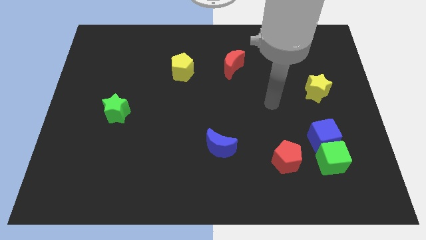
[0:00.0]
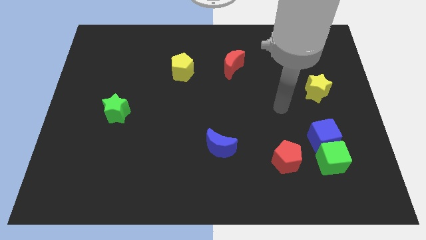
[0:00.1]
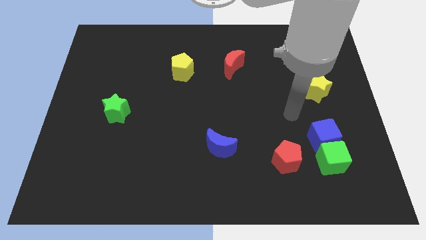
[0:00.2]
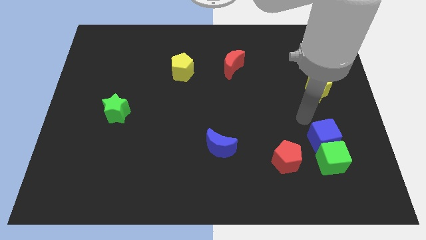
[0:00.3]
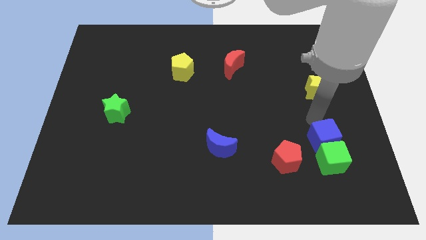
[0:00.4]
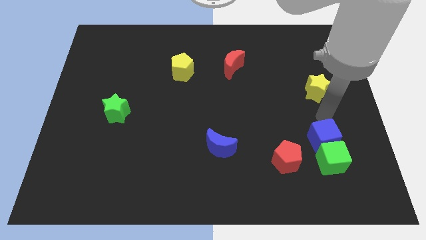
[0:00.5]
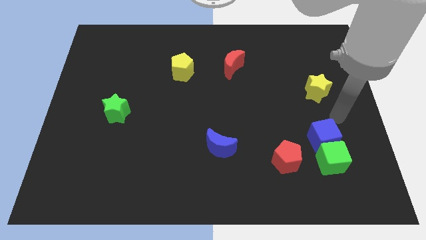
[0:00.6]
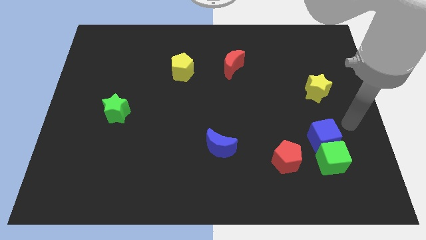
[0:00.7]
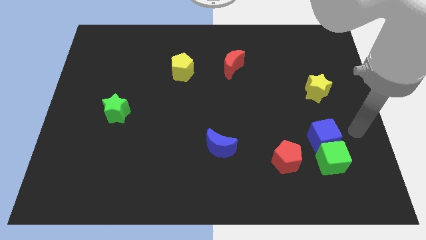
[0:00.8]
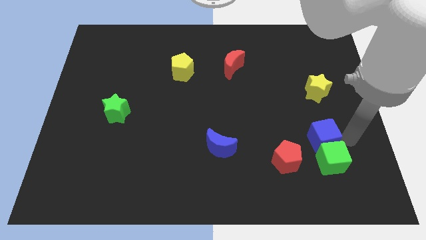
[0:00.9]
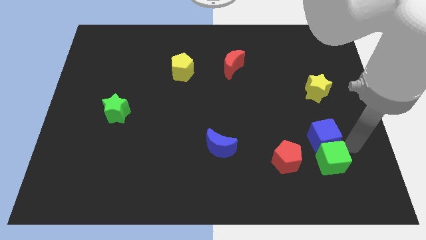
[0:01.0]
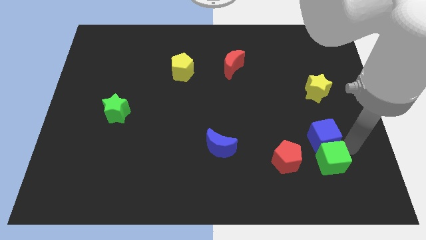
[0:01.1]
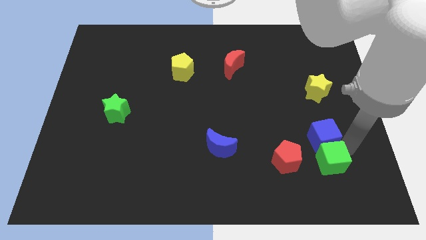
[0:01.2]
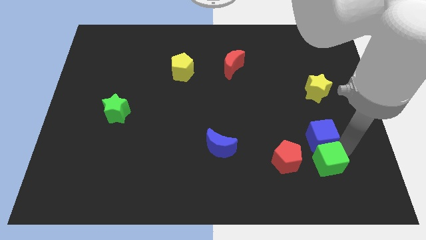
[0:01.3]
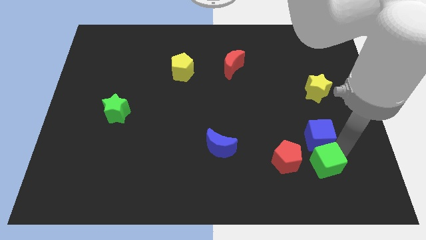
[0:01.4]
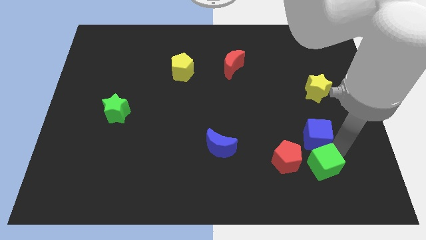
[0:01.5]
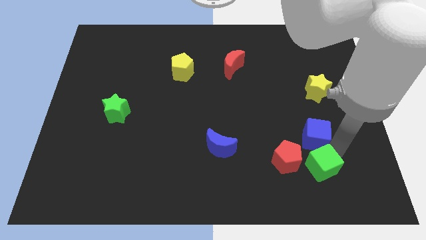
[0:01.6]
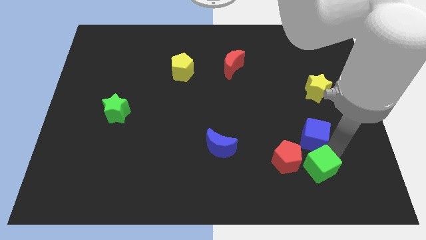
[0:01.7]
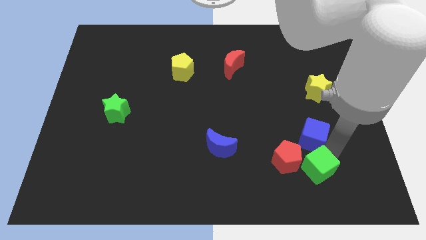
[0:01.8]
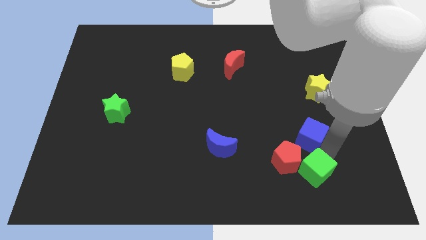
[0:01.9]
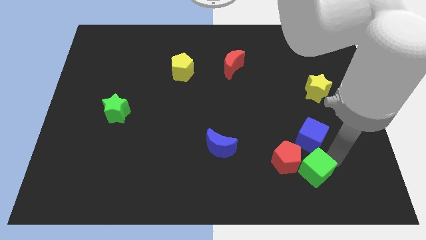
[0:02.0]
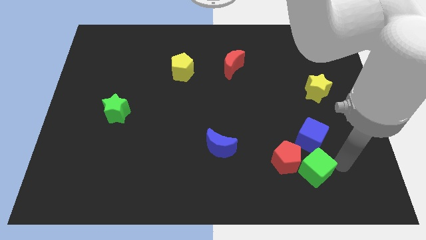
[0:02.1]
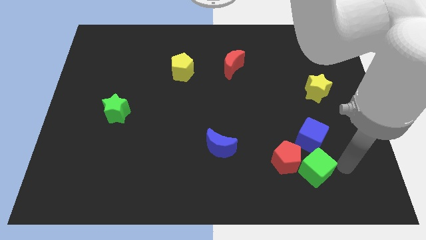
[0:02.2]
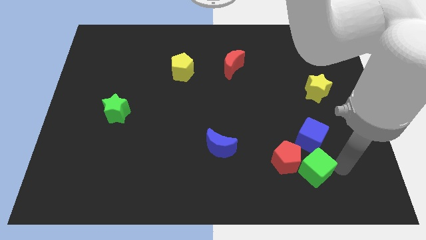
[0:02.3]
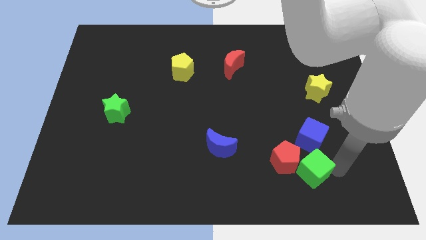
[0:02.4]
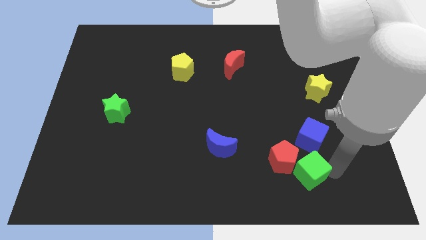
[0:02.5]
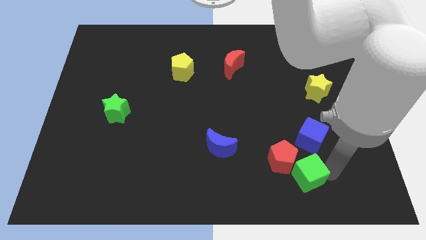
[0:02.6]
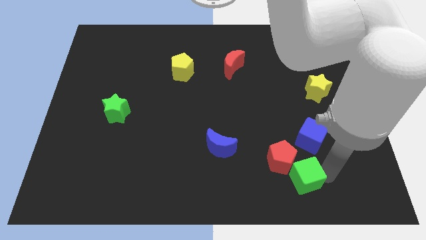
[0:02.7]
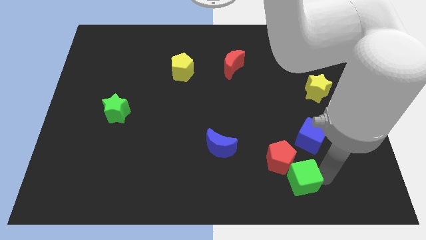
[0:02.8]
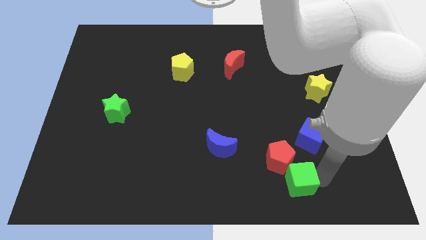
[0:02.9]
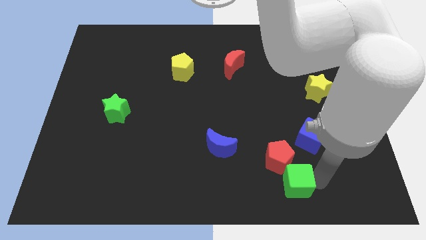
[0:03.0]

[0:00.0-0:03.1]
slightly push the green cube to the left

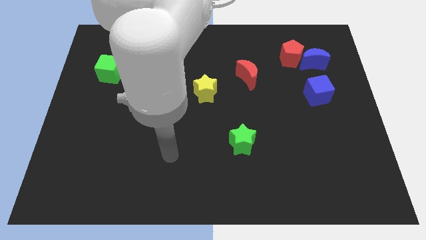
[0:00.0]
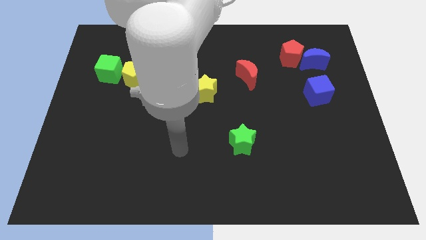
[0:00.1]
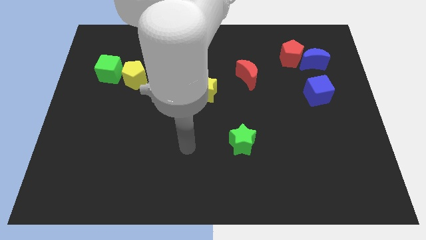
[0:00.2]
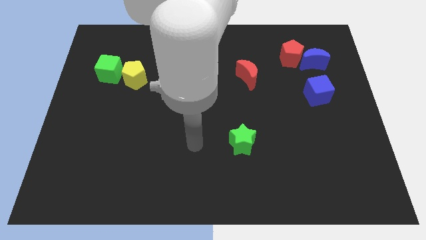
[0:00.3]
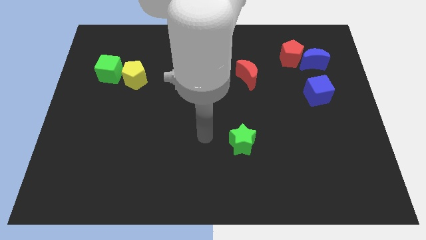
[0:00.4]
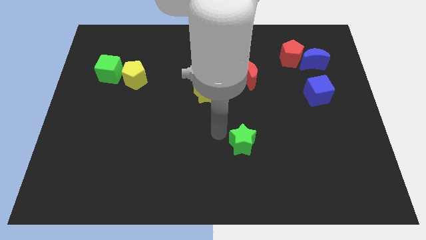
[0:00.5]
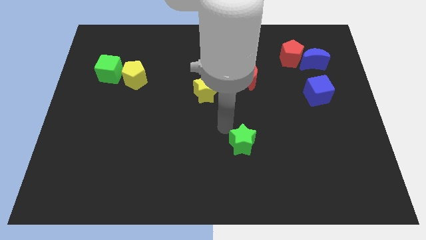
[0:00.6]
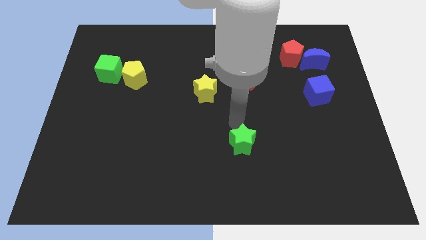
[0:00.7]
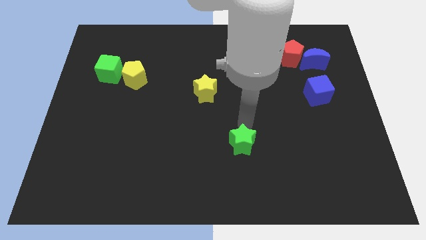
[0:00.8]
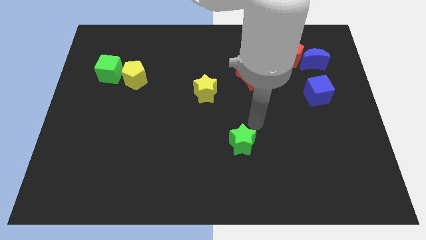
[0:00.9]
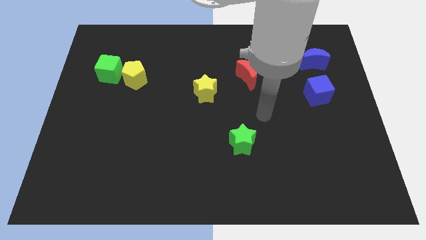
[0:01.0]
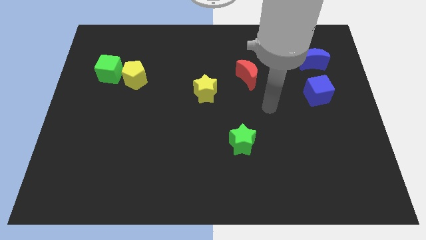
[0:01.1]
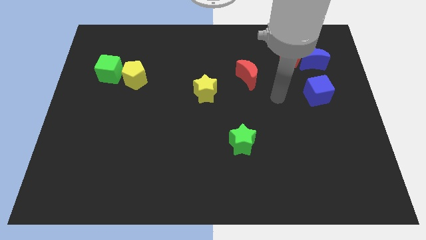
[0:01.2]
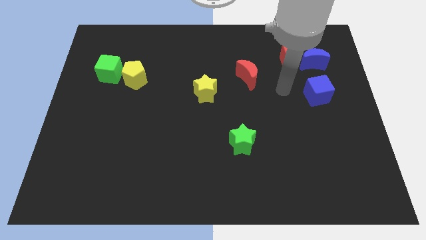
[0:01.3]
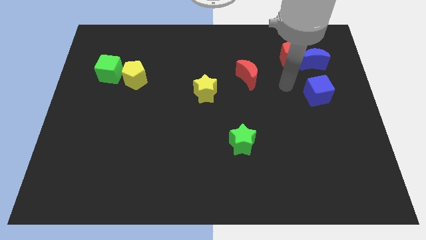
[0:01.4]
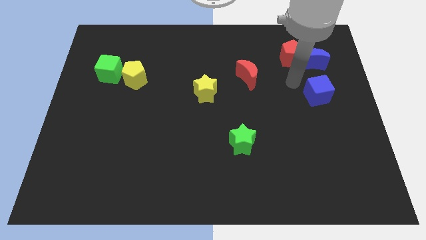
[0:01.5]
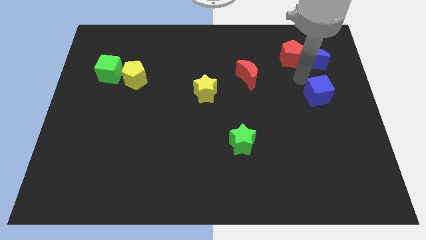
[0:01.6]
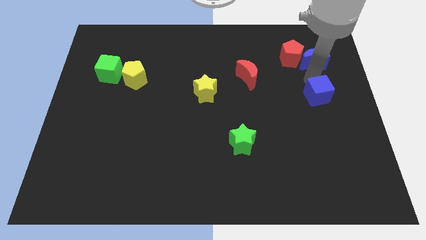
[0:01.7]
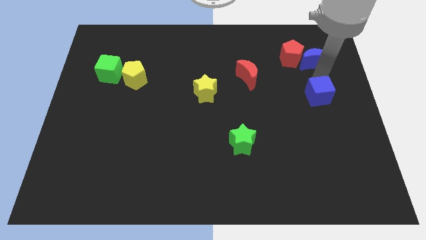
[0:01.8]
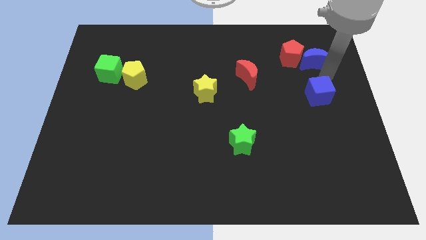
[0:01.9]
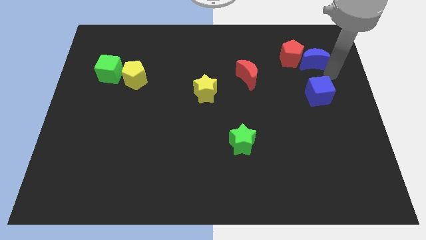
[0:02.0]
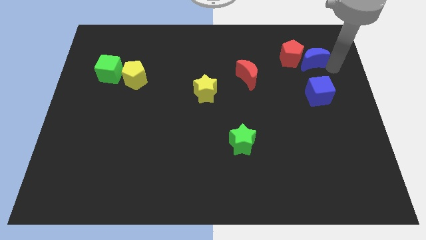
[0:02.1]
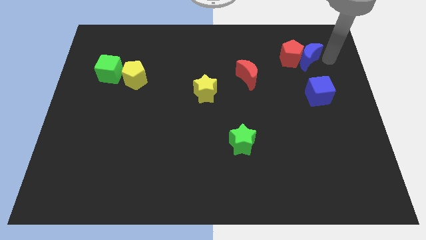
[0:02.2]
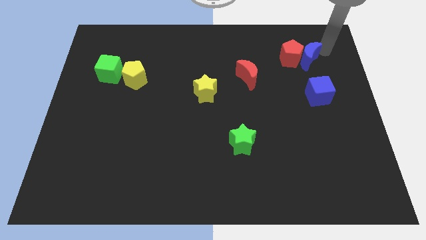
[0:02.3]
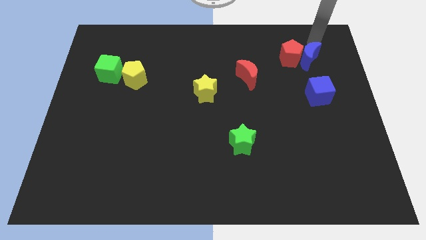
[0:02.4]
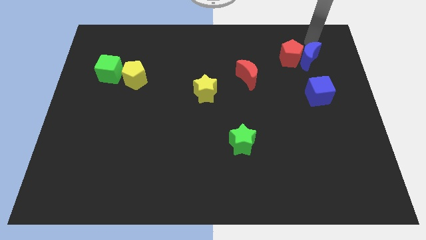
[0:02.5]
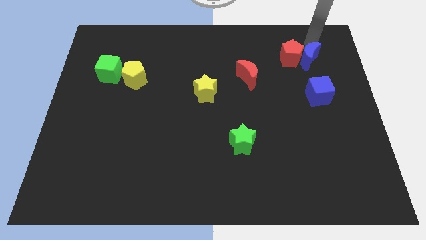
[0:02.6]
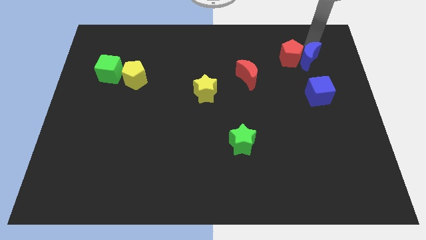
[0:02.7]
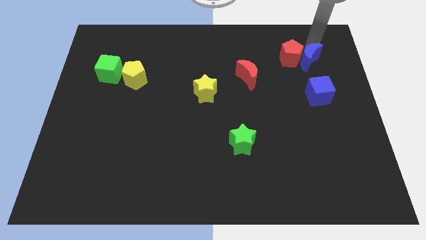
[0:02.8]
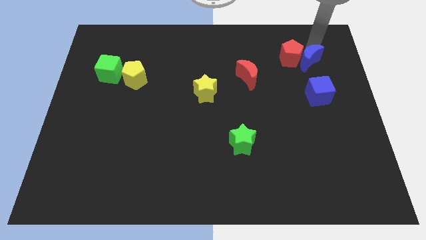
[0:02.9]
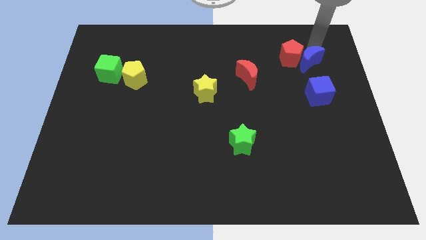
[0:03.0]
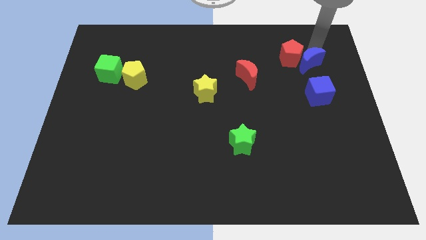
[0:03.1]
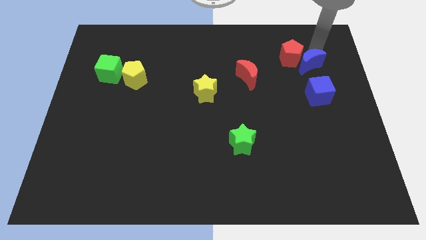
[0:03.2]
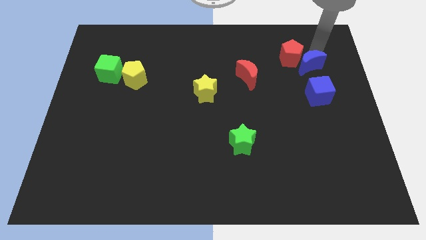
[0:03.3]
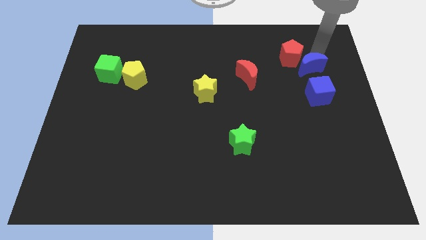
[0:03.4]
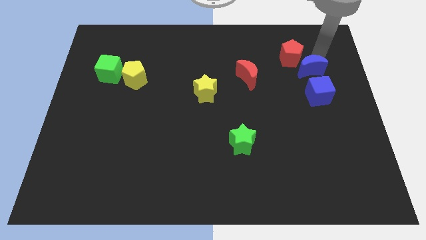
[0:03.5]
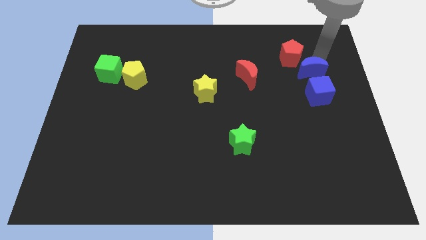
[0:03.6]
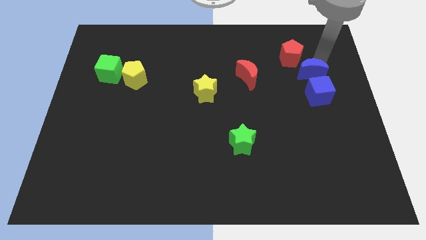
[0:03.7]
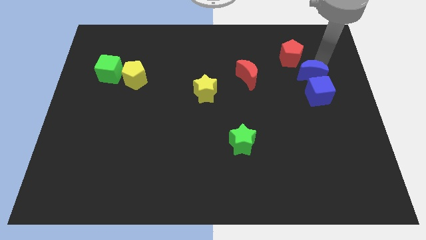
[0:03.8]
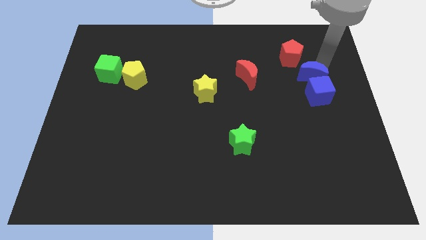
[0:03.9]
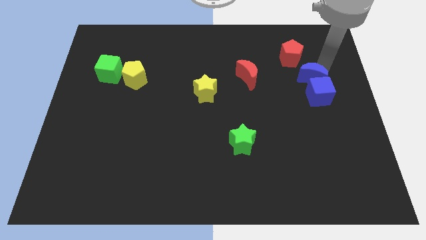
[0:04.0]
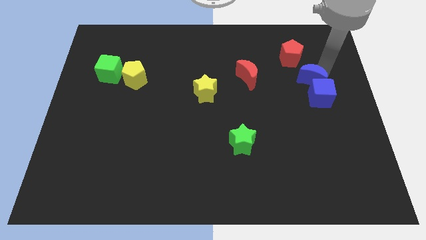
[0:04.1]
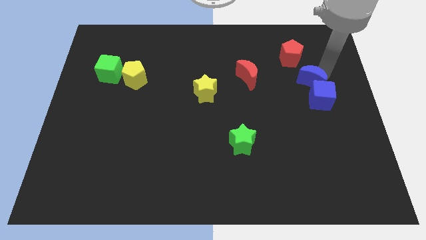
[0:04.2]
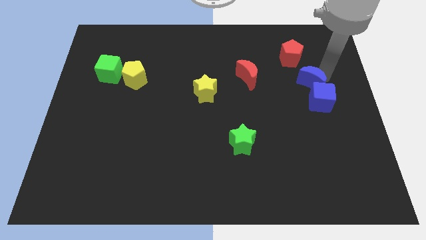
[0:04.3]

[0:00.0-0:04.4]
slightly slide the blue moon down

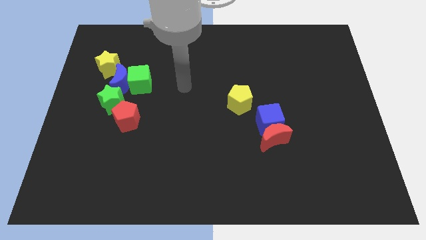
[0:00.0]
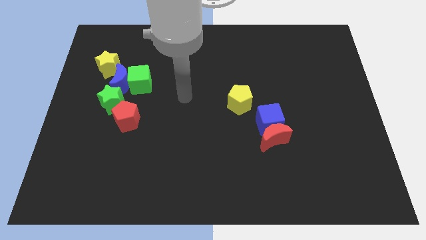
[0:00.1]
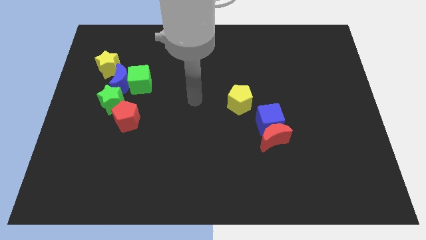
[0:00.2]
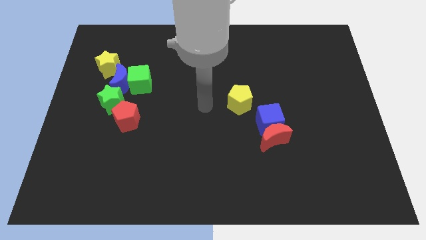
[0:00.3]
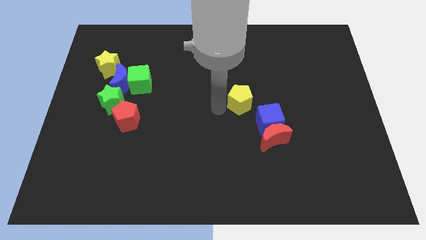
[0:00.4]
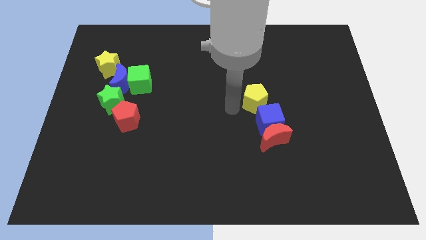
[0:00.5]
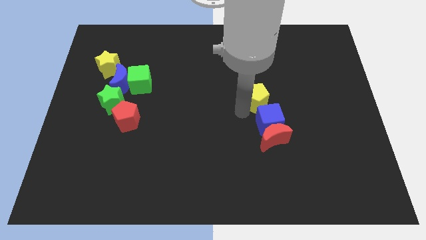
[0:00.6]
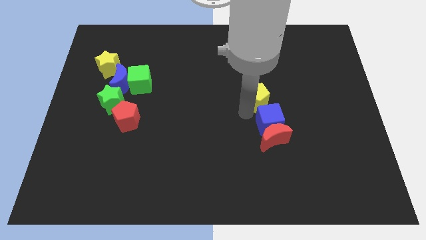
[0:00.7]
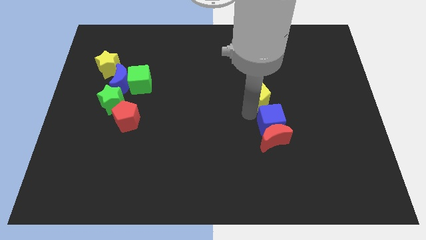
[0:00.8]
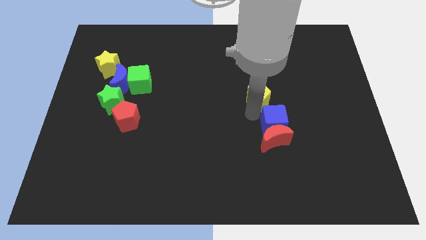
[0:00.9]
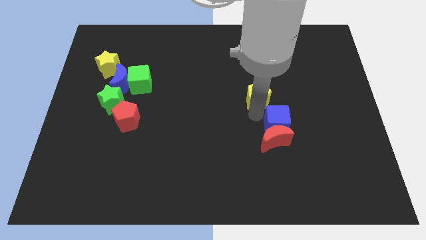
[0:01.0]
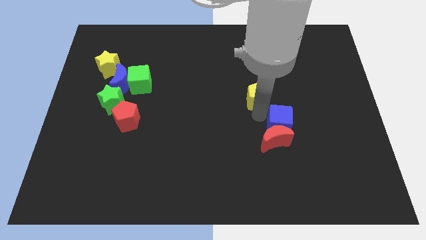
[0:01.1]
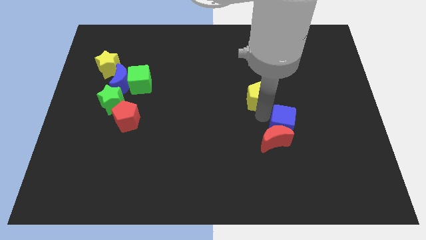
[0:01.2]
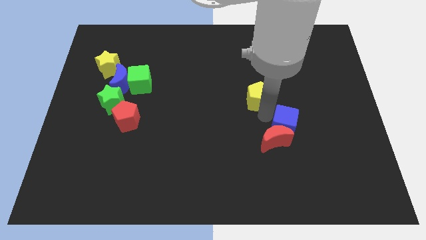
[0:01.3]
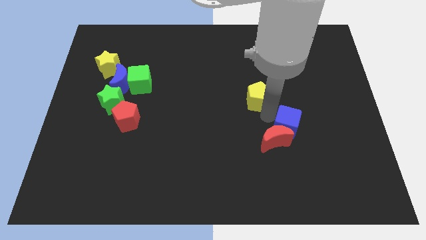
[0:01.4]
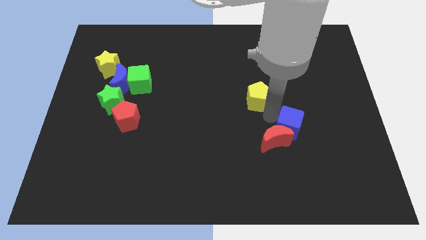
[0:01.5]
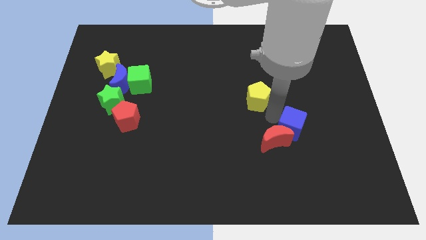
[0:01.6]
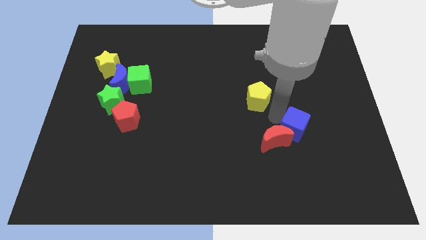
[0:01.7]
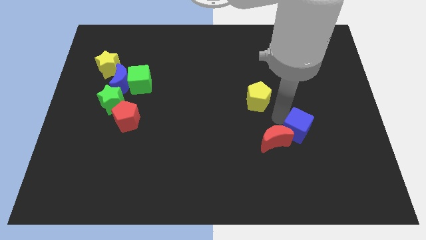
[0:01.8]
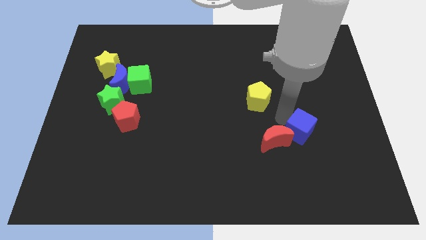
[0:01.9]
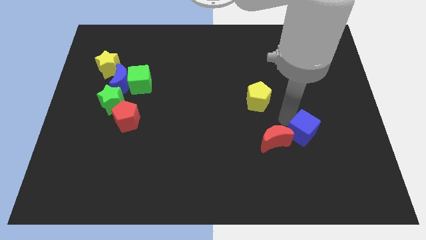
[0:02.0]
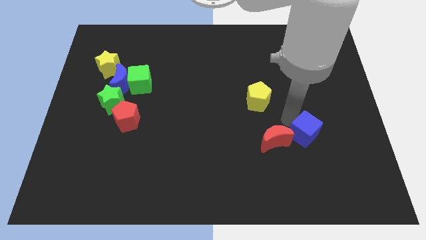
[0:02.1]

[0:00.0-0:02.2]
slide the blue cube downwards and then right a little bit
